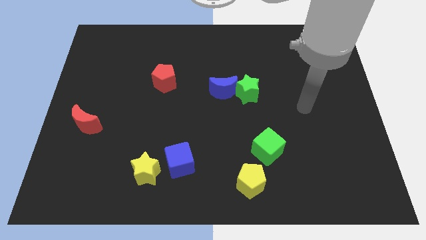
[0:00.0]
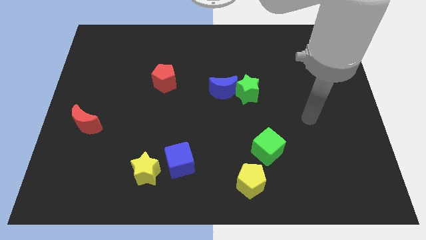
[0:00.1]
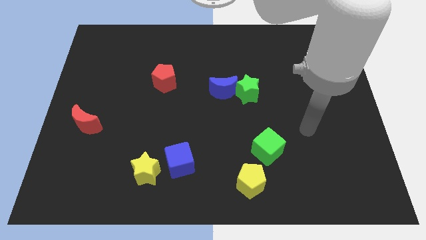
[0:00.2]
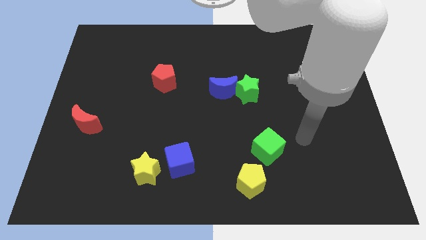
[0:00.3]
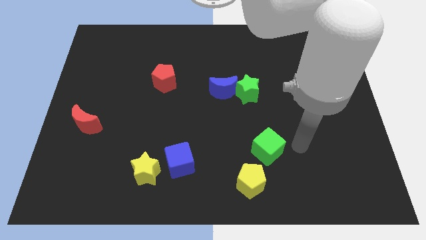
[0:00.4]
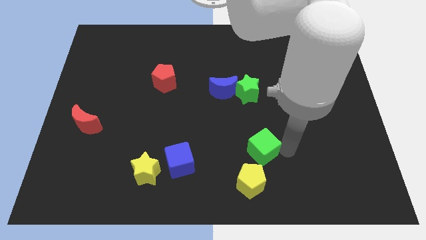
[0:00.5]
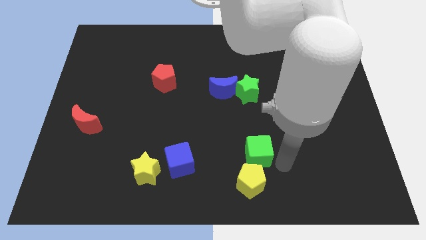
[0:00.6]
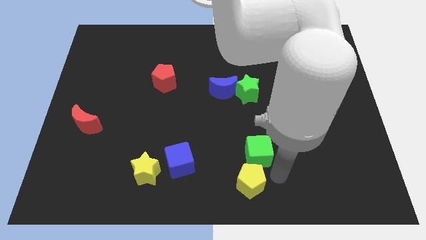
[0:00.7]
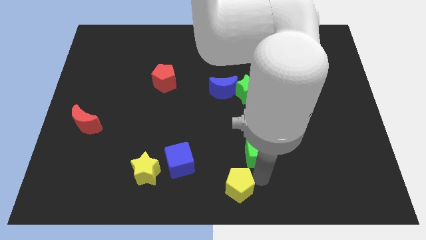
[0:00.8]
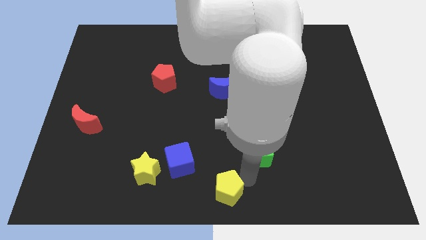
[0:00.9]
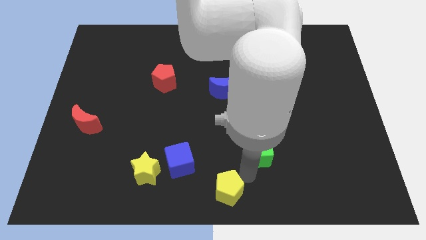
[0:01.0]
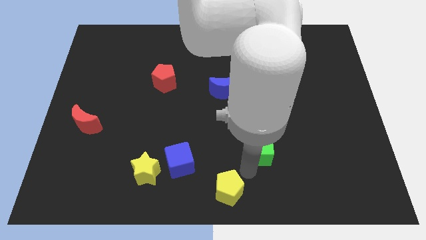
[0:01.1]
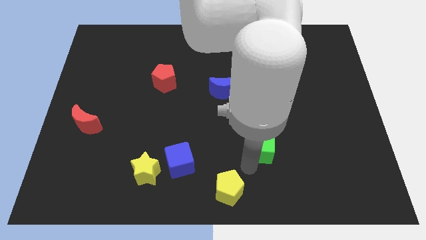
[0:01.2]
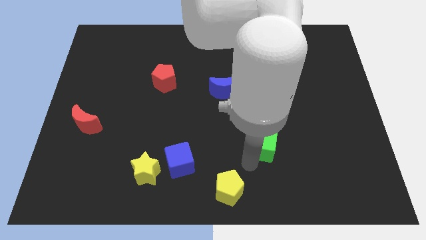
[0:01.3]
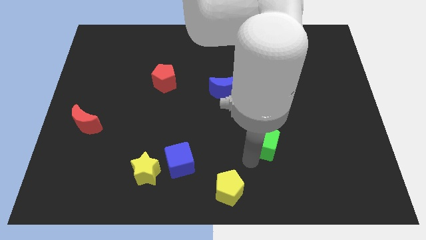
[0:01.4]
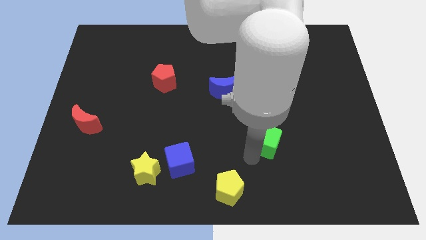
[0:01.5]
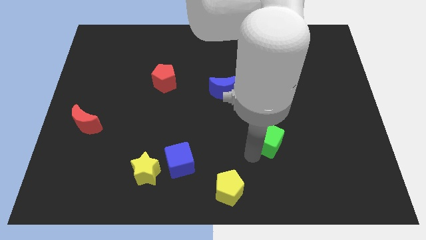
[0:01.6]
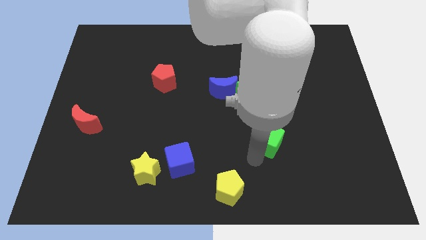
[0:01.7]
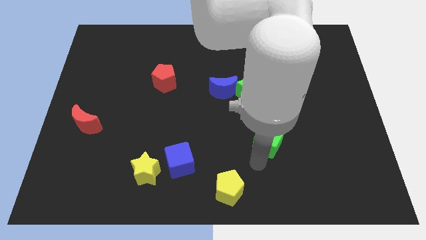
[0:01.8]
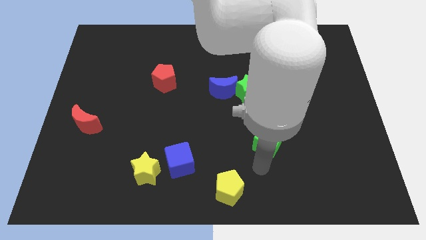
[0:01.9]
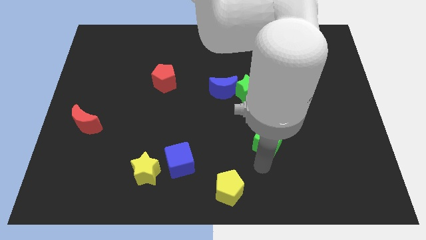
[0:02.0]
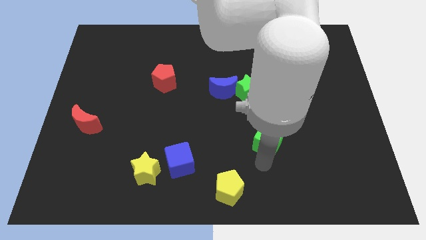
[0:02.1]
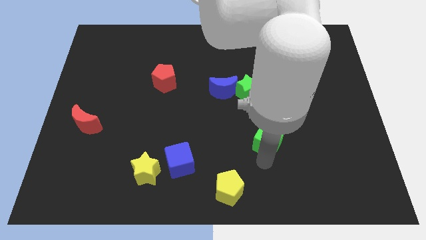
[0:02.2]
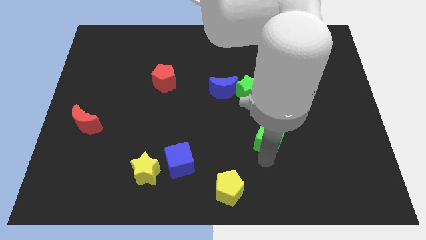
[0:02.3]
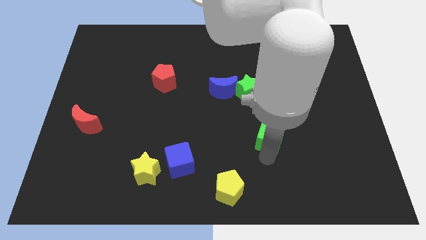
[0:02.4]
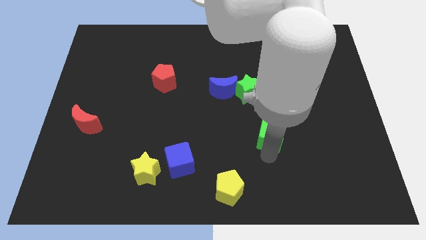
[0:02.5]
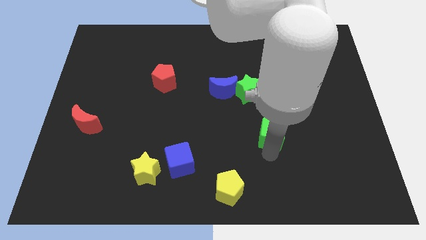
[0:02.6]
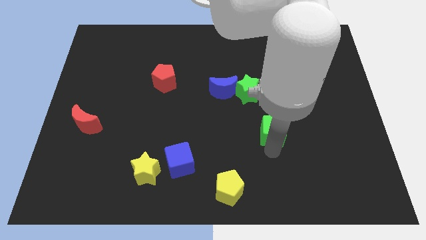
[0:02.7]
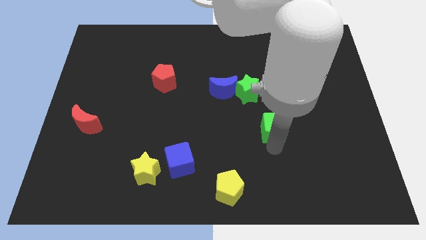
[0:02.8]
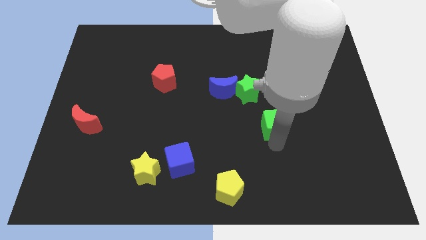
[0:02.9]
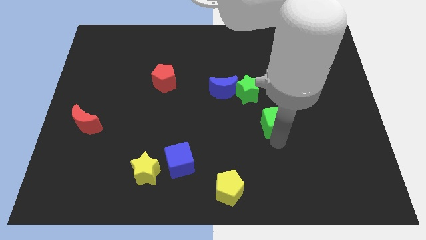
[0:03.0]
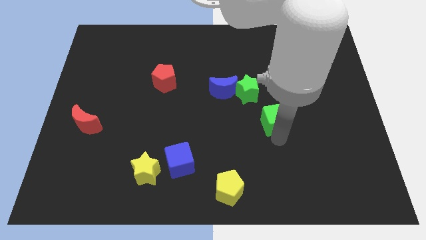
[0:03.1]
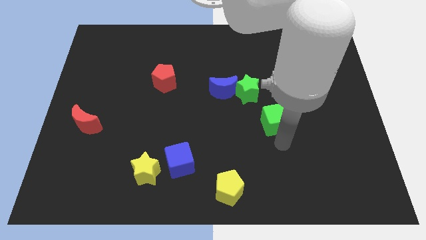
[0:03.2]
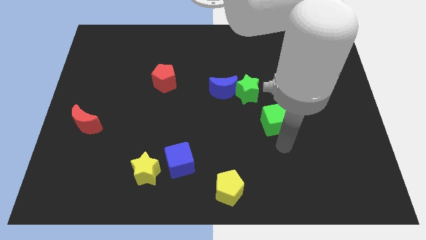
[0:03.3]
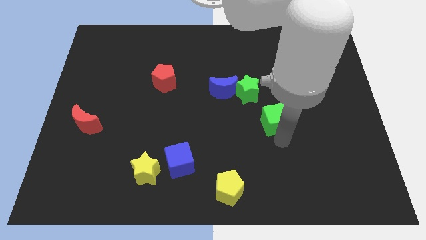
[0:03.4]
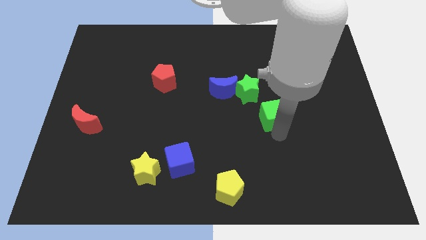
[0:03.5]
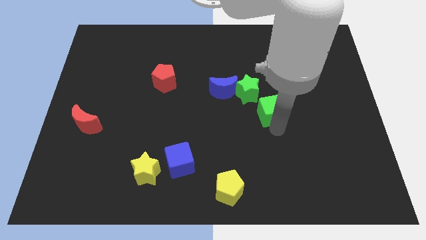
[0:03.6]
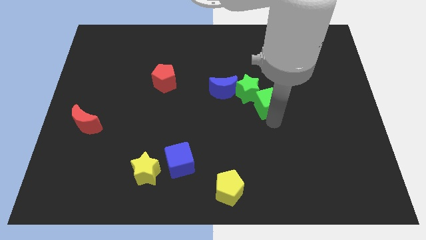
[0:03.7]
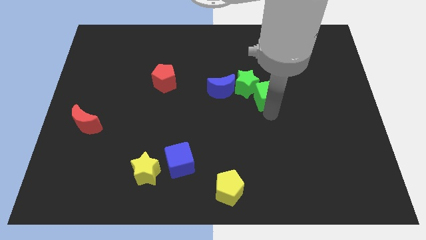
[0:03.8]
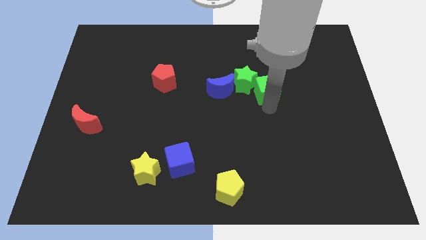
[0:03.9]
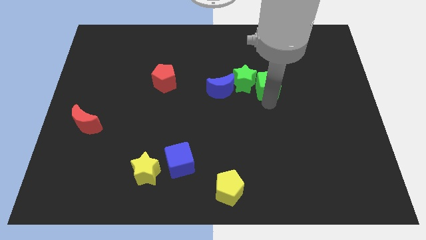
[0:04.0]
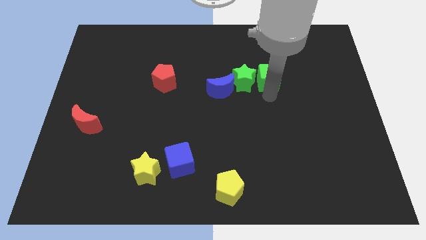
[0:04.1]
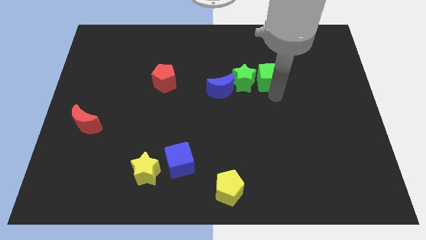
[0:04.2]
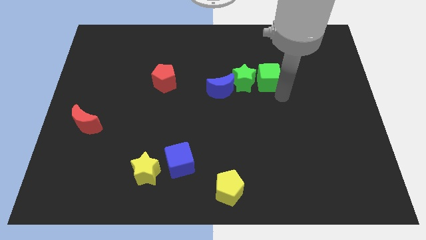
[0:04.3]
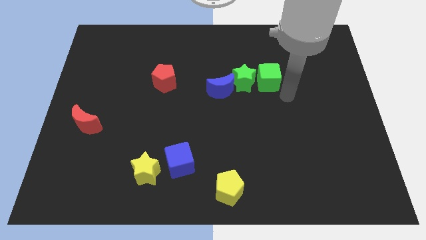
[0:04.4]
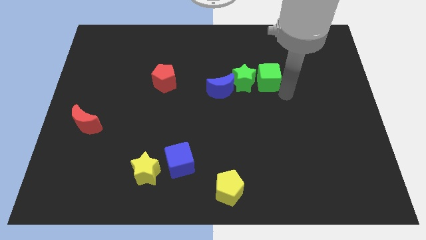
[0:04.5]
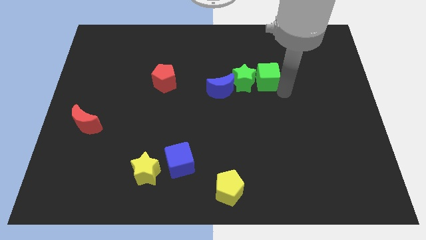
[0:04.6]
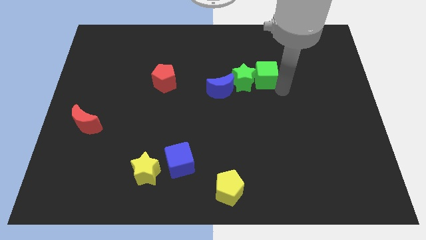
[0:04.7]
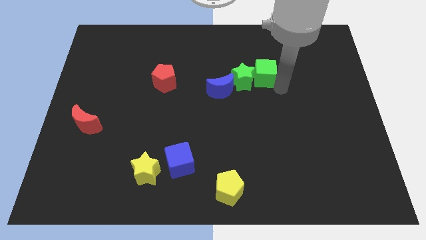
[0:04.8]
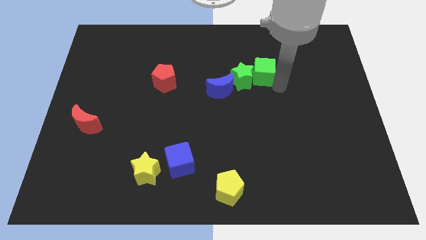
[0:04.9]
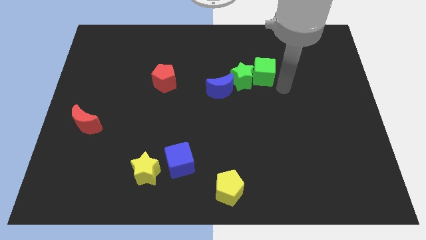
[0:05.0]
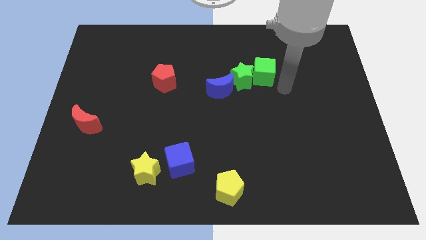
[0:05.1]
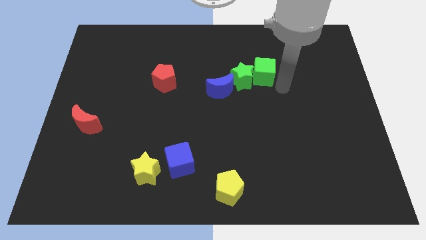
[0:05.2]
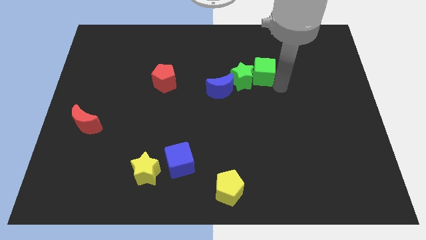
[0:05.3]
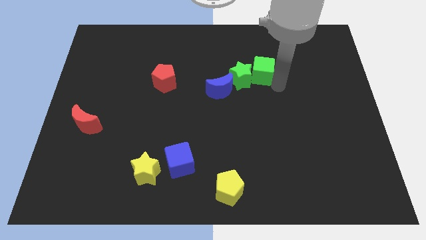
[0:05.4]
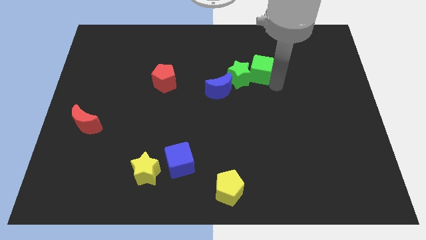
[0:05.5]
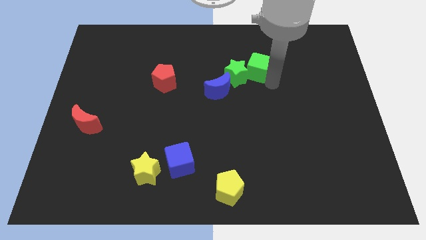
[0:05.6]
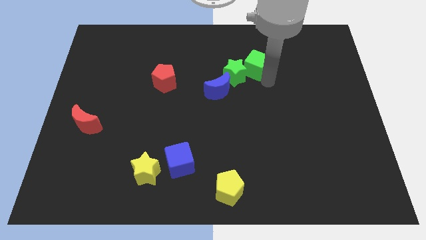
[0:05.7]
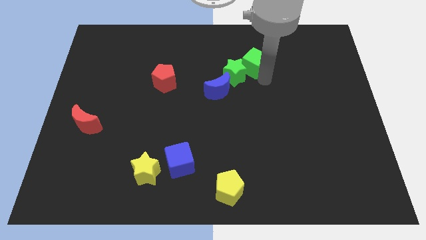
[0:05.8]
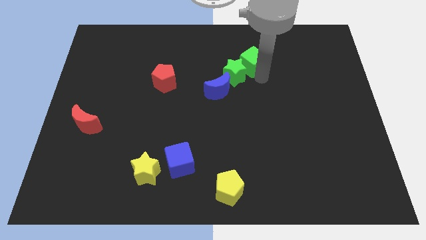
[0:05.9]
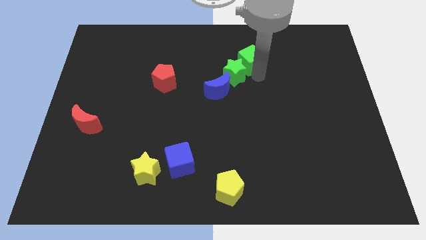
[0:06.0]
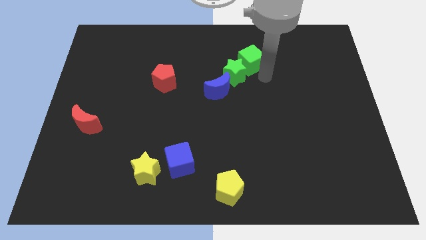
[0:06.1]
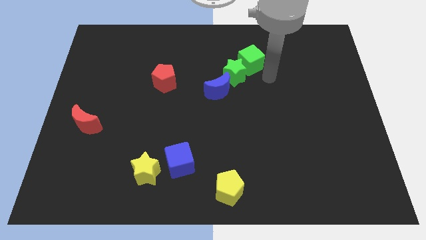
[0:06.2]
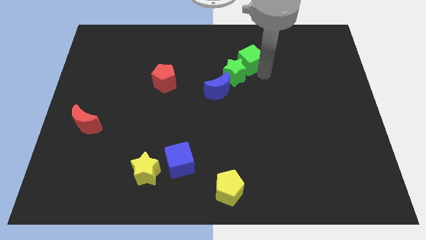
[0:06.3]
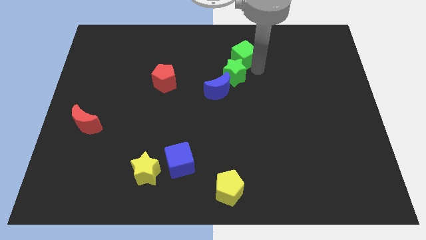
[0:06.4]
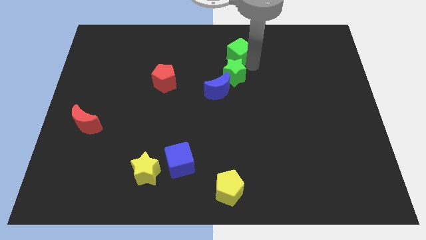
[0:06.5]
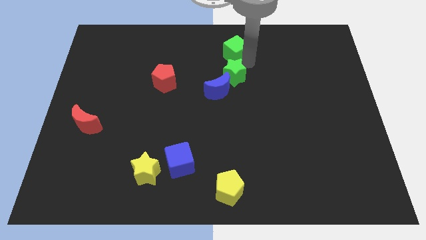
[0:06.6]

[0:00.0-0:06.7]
put the green cube to the top side
